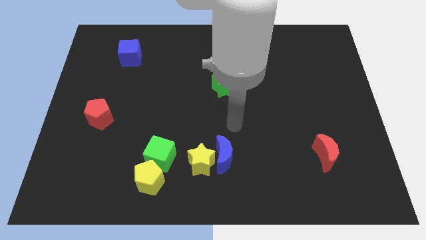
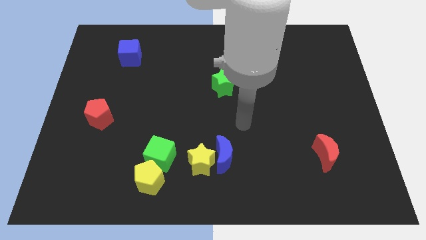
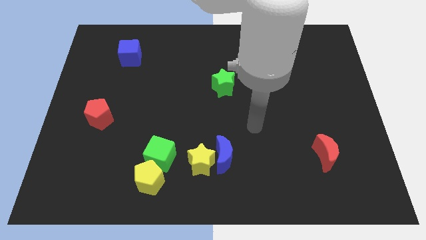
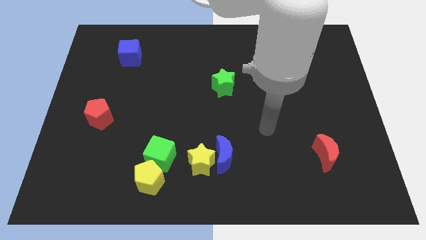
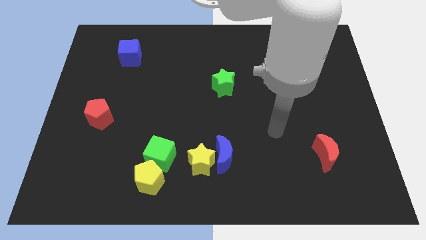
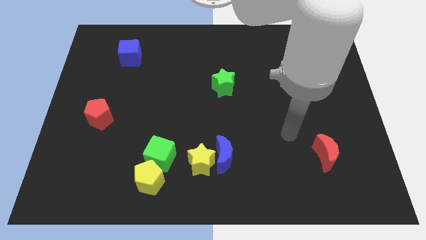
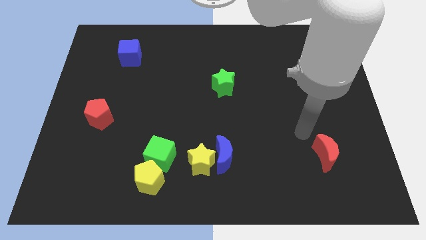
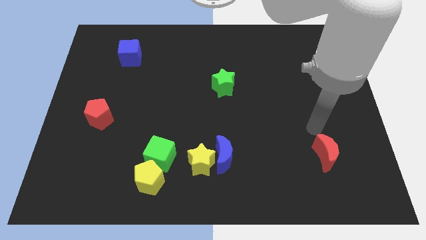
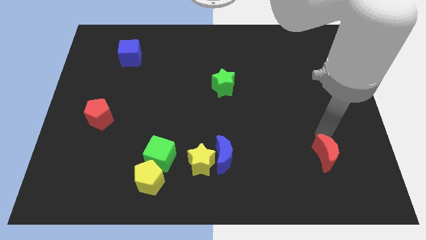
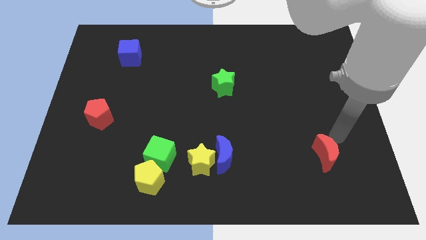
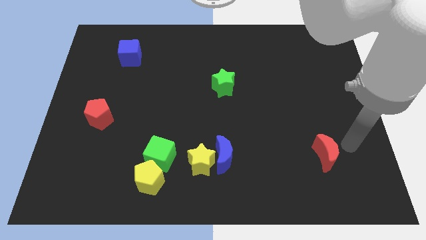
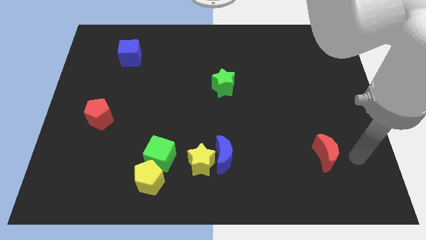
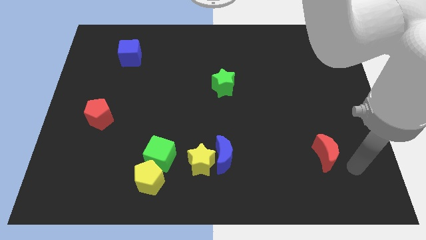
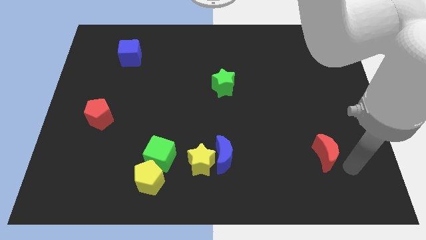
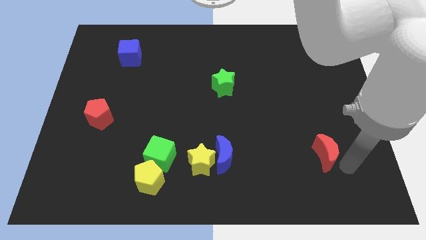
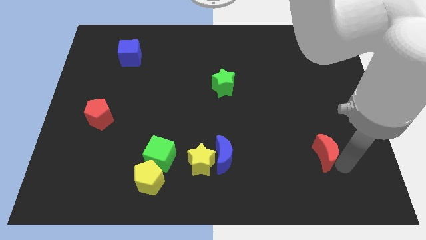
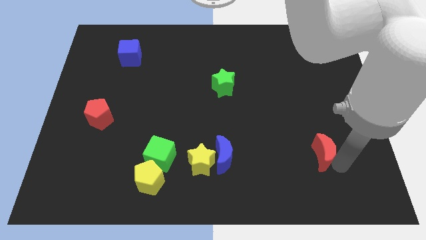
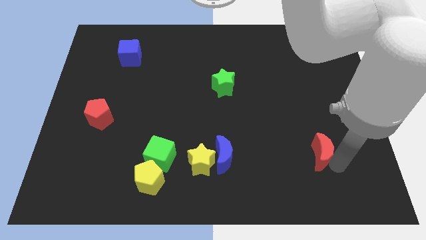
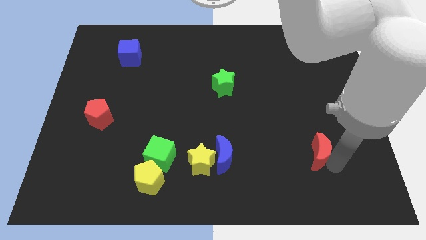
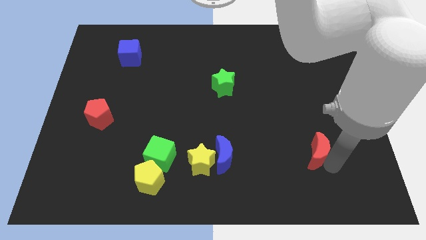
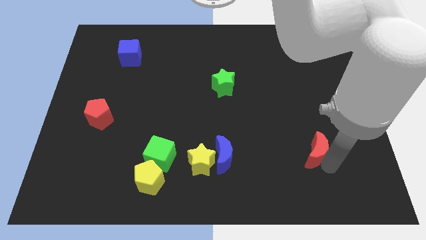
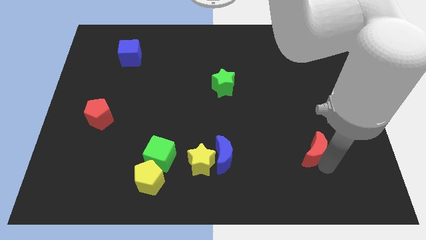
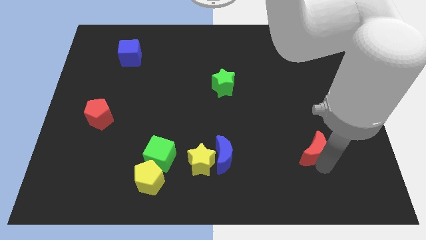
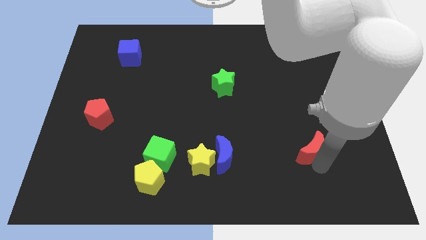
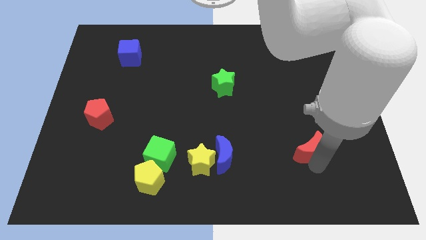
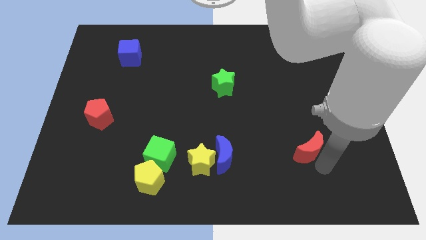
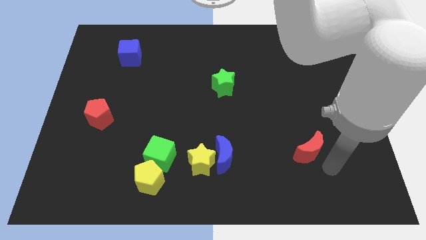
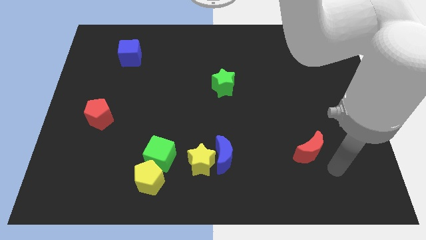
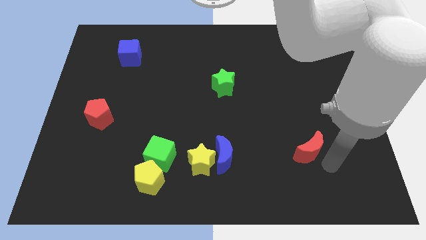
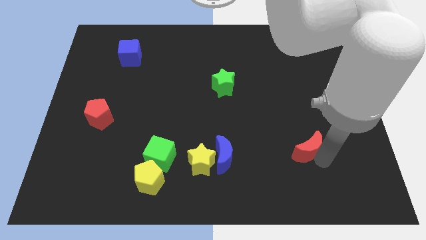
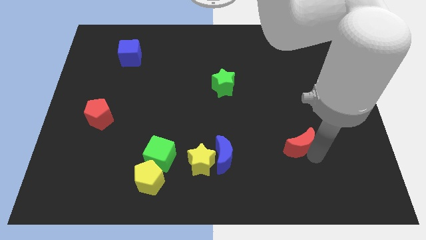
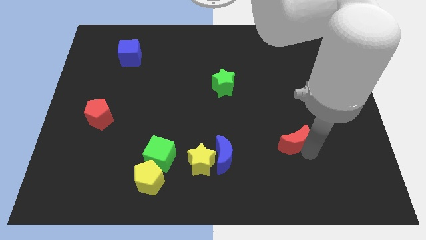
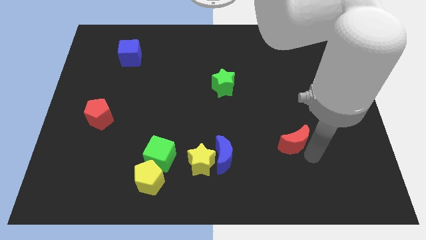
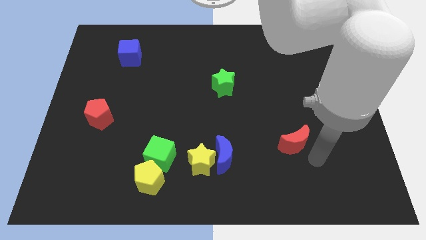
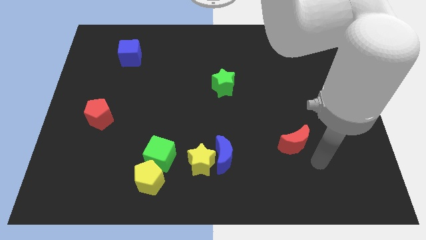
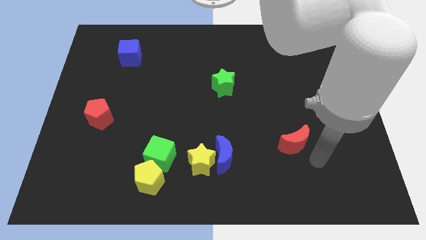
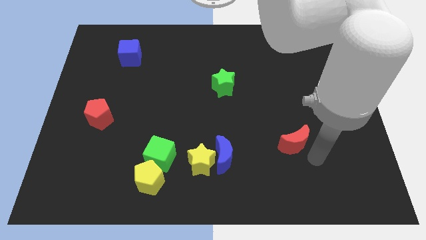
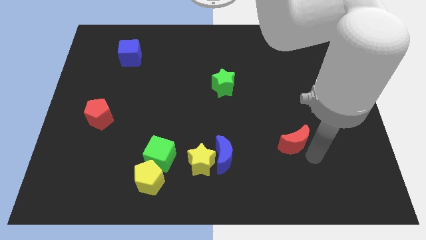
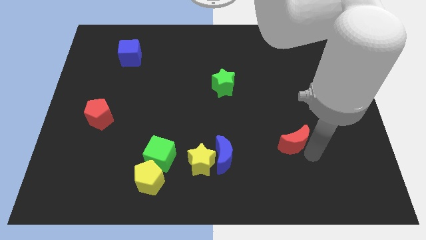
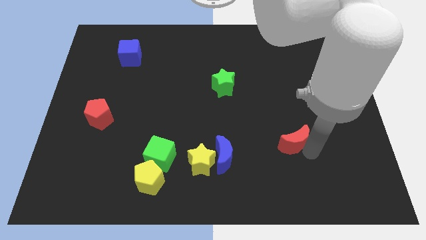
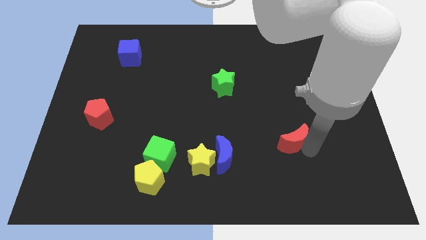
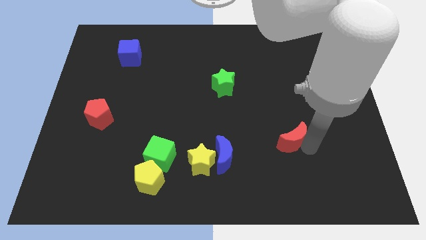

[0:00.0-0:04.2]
push the red moon a little bit upwards and left

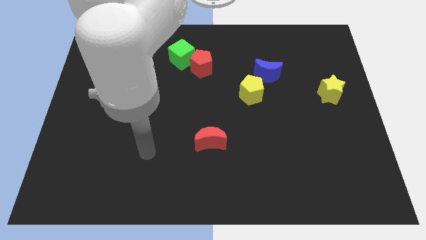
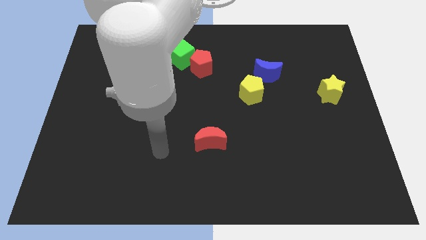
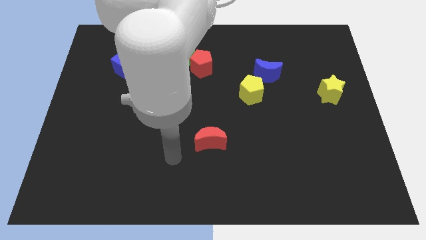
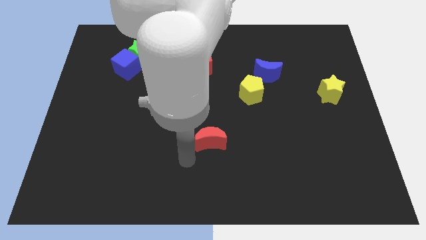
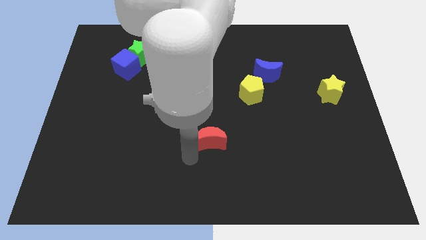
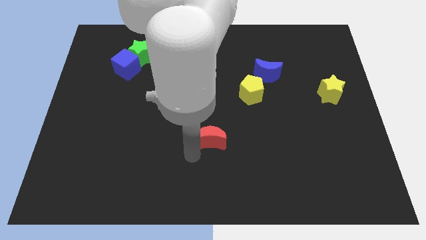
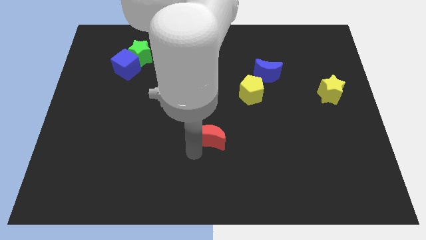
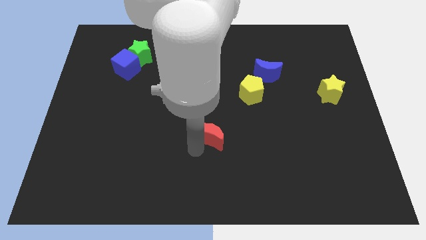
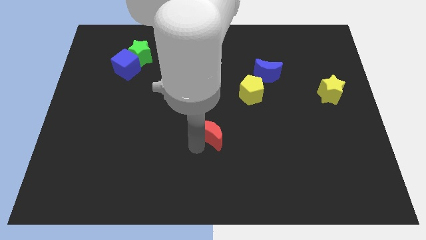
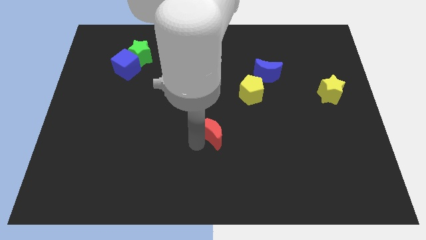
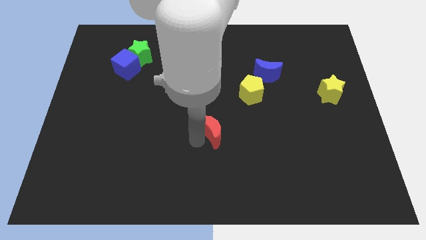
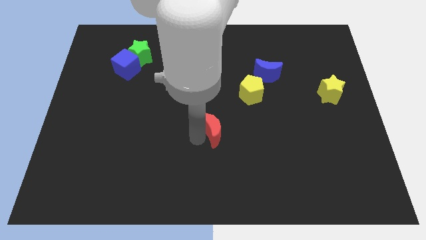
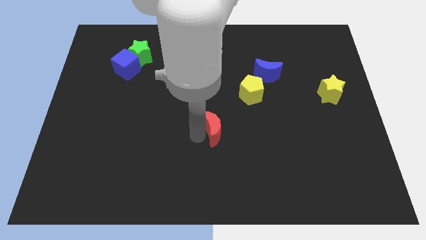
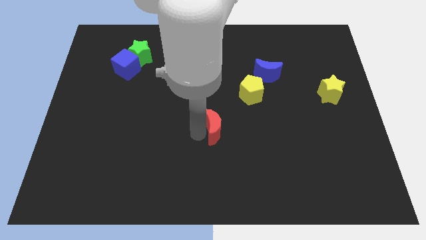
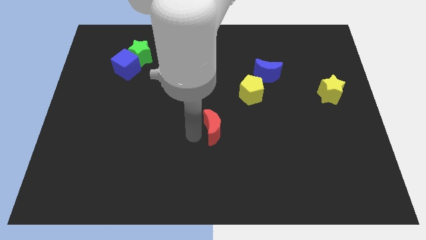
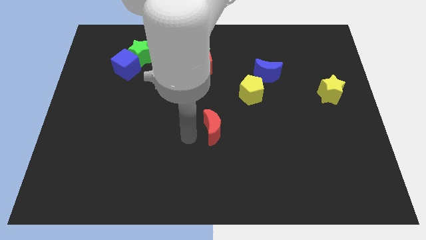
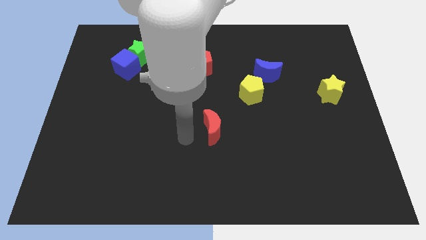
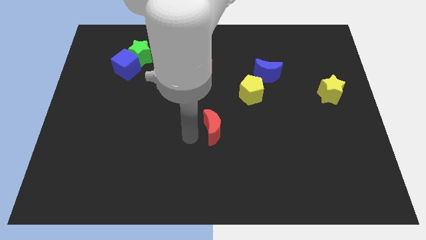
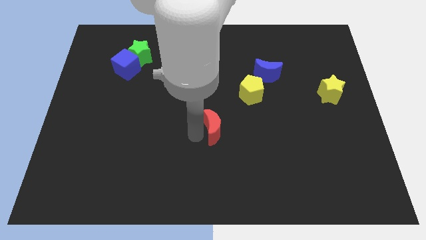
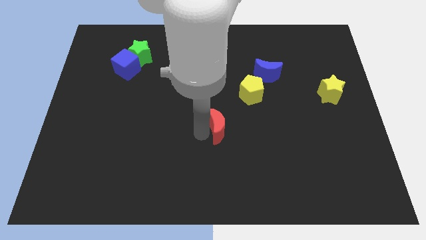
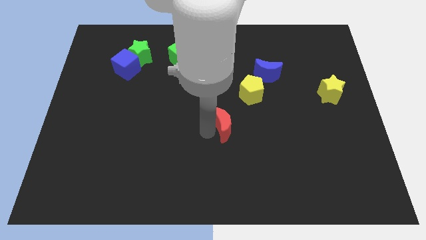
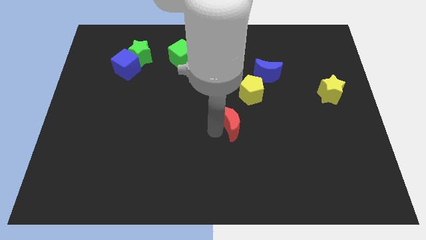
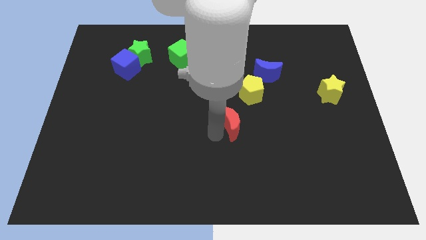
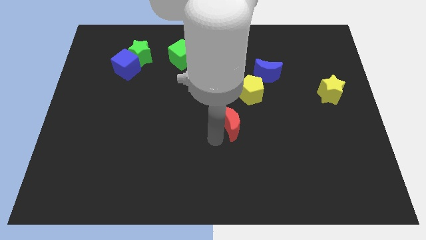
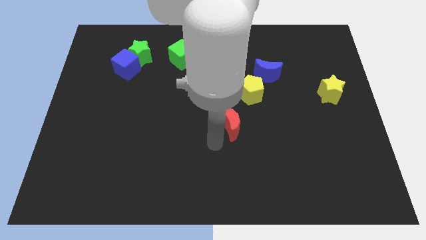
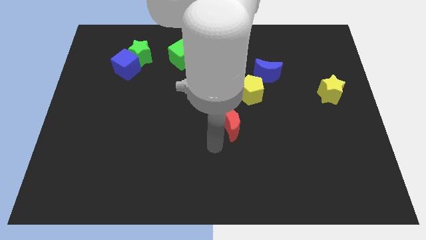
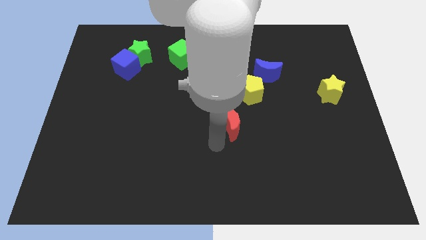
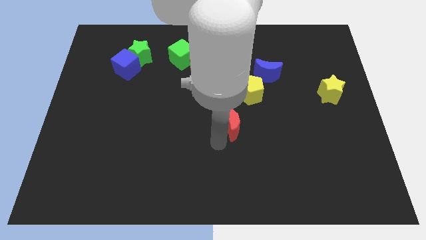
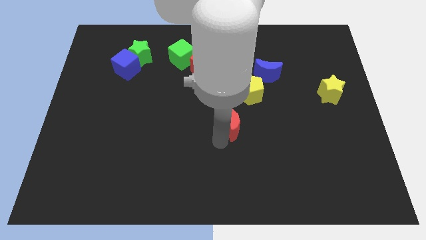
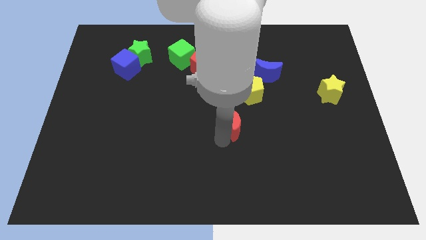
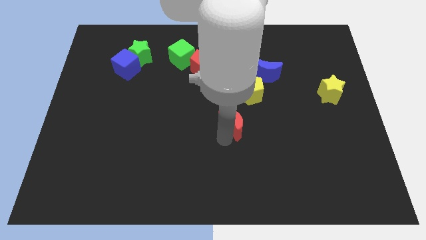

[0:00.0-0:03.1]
move the red moon a bit up and then to the right

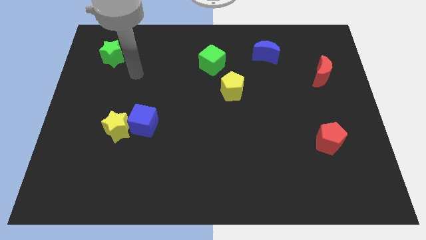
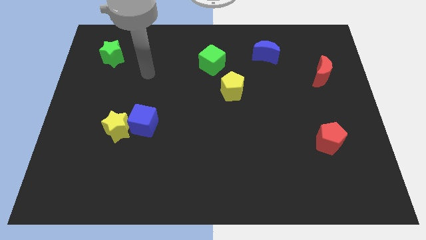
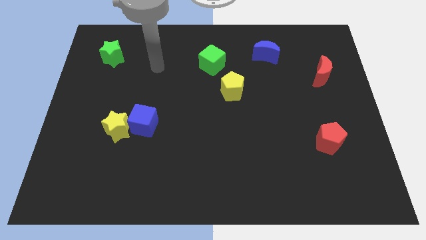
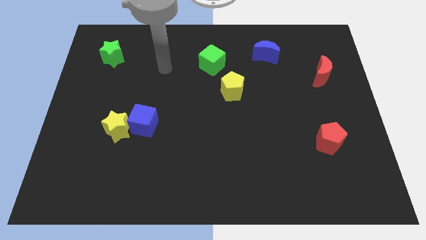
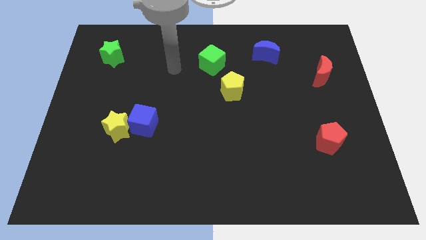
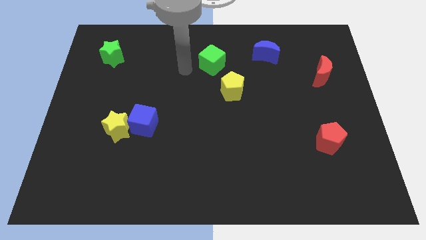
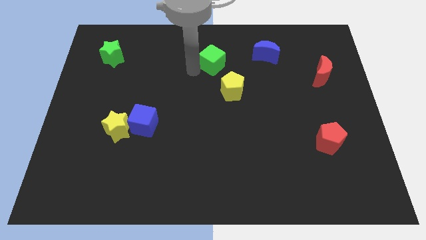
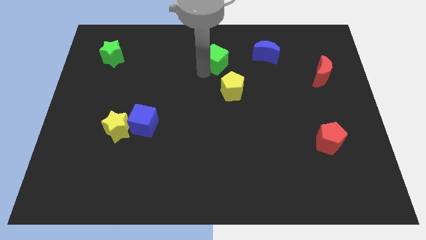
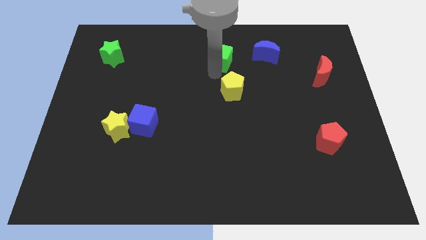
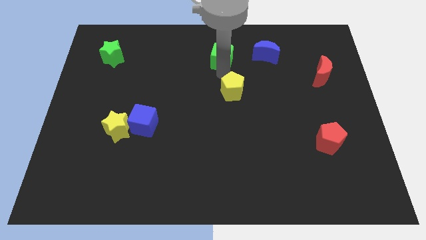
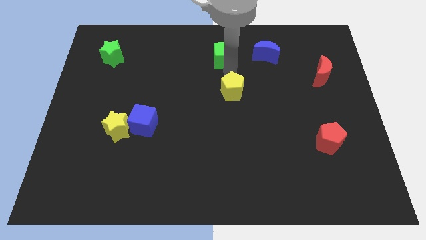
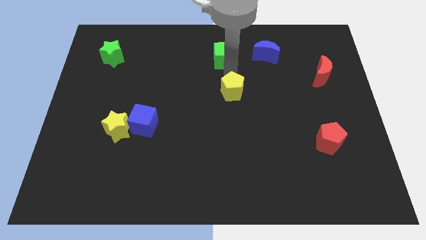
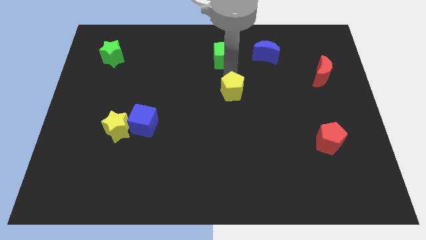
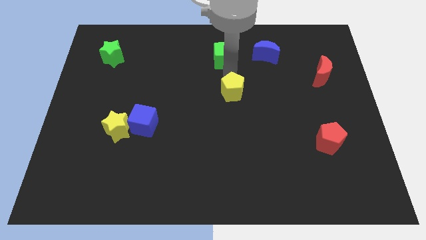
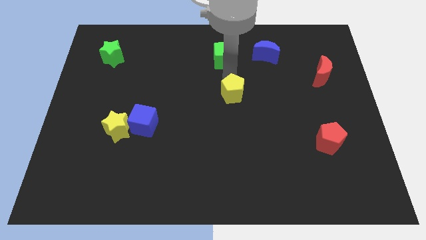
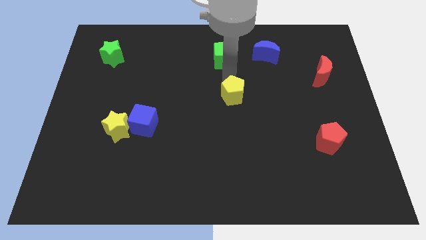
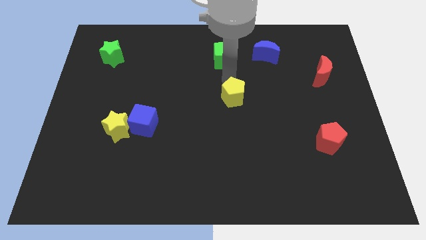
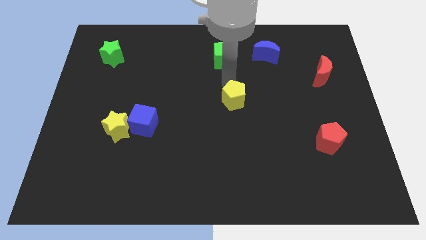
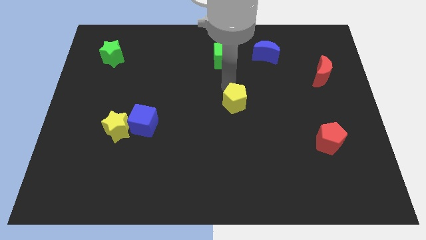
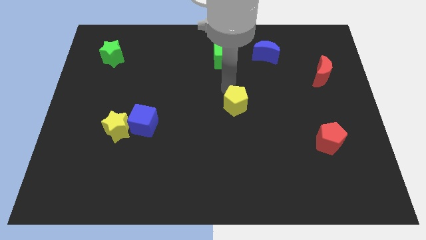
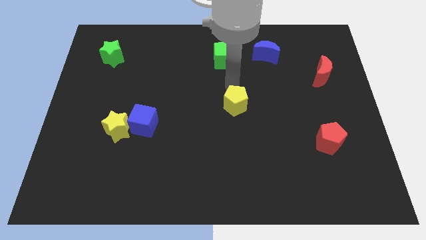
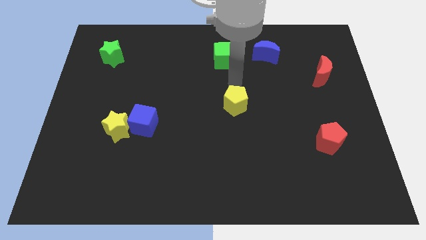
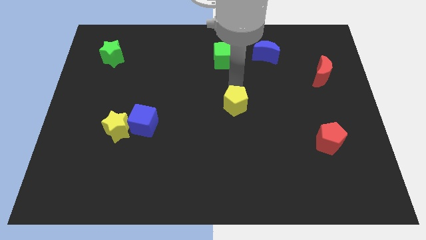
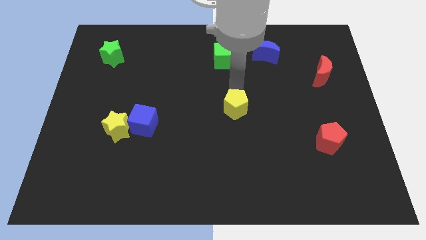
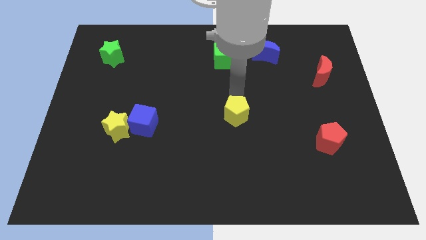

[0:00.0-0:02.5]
slightly move the yellow pentagon down
